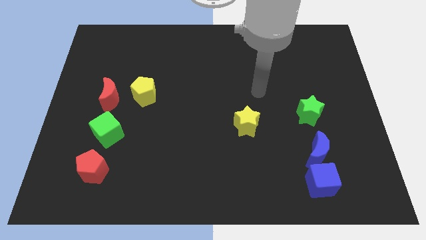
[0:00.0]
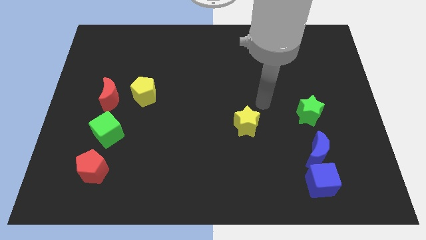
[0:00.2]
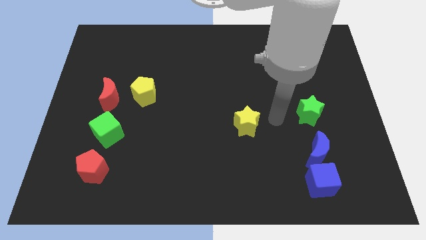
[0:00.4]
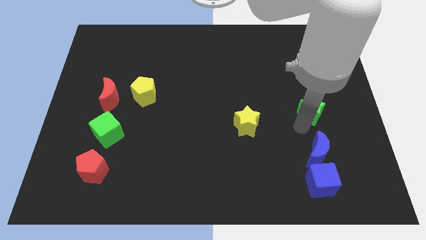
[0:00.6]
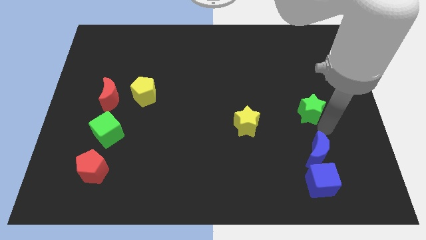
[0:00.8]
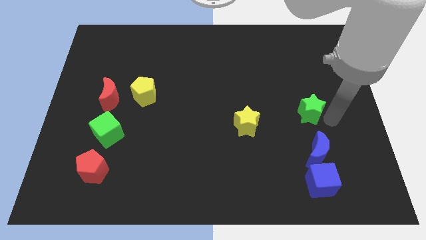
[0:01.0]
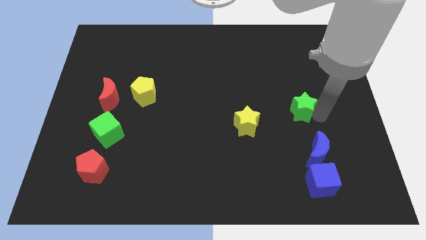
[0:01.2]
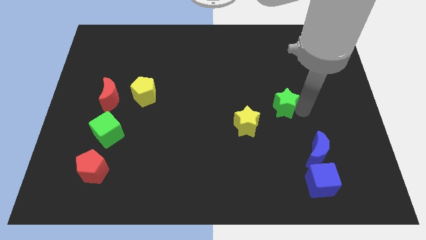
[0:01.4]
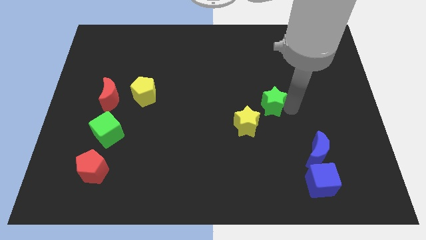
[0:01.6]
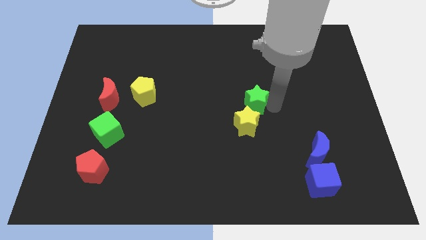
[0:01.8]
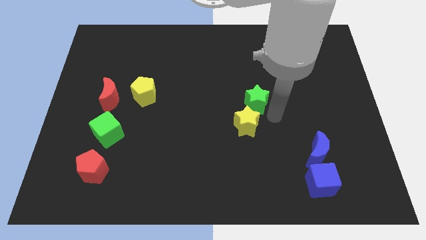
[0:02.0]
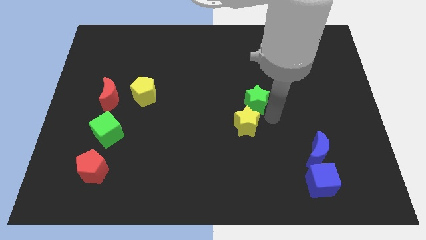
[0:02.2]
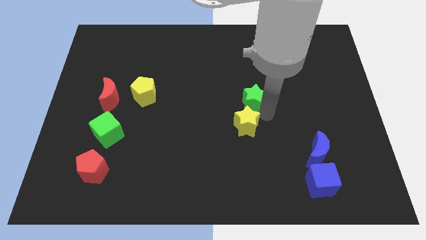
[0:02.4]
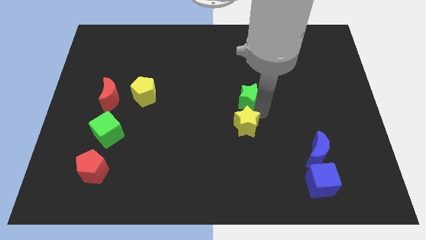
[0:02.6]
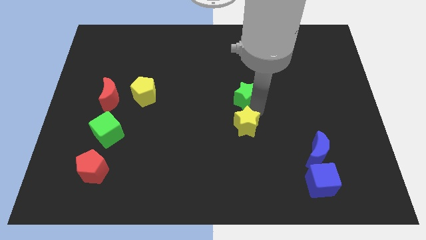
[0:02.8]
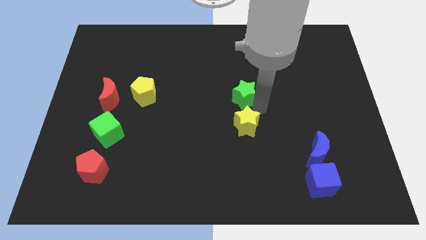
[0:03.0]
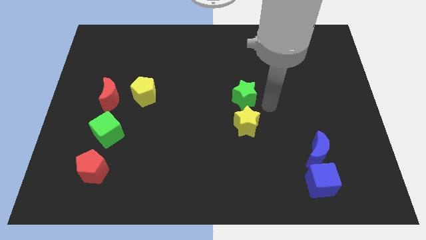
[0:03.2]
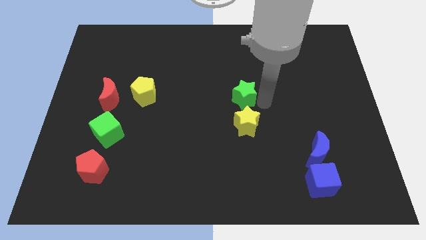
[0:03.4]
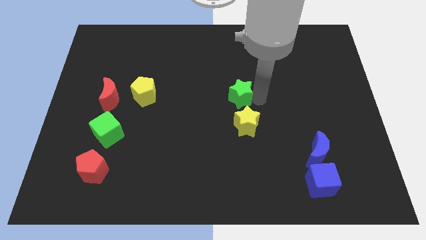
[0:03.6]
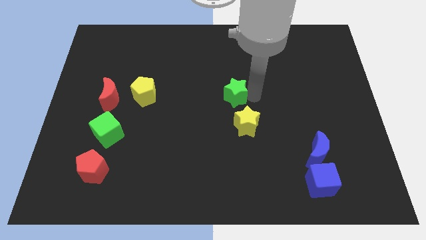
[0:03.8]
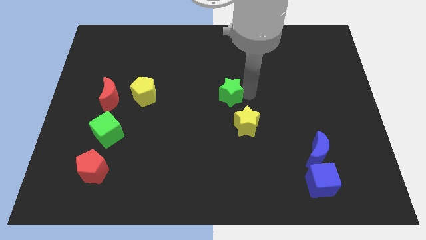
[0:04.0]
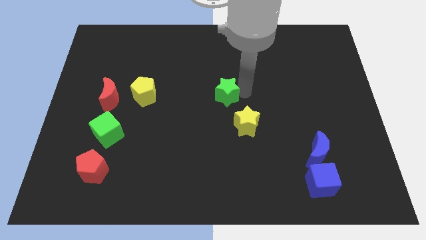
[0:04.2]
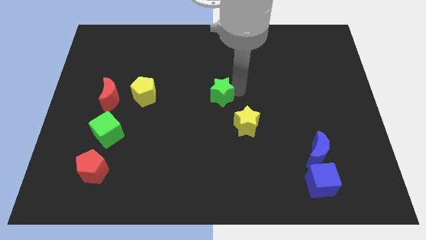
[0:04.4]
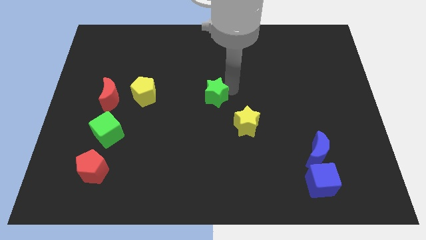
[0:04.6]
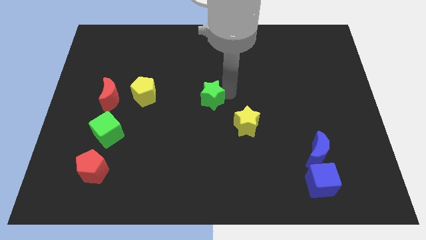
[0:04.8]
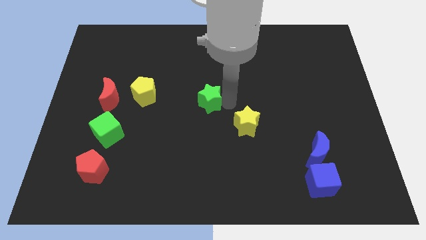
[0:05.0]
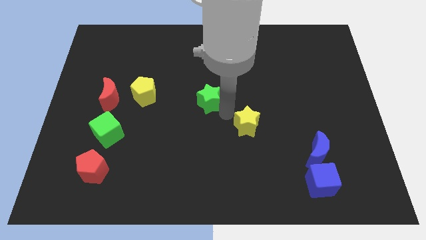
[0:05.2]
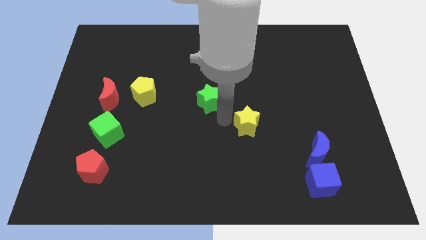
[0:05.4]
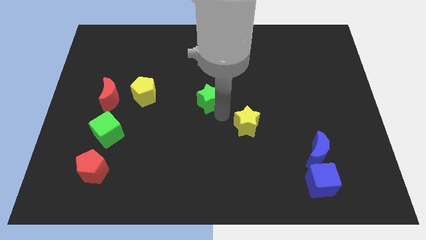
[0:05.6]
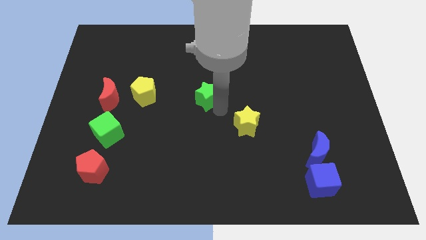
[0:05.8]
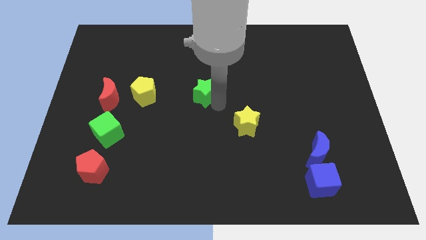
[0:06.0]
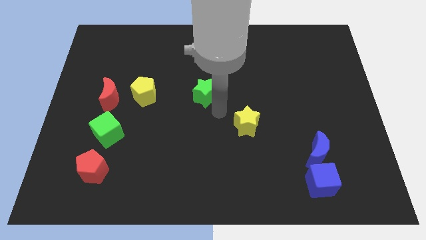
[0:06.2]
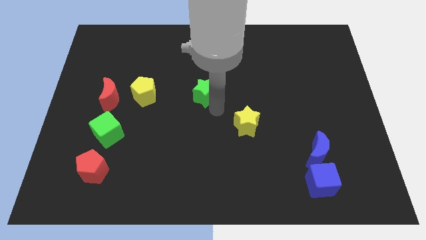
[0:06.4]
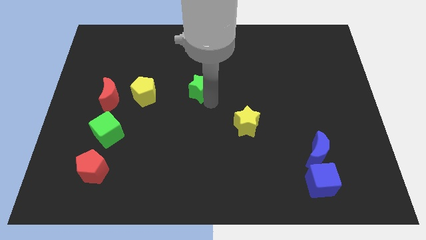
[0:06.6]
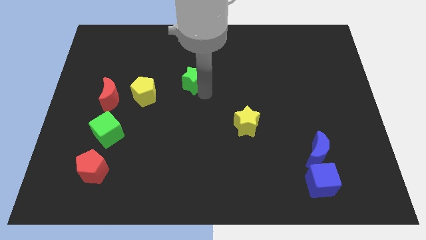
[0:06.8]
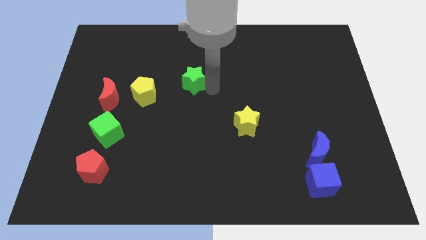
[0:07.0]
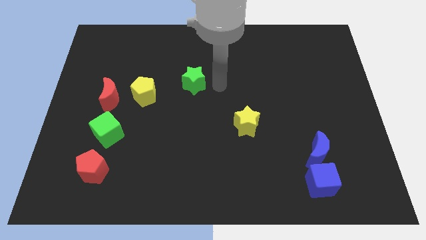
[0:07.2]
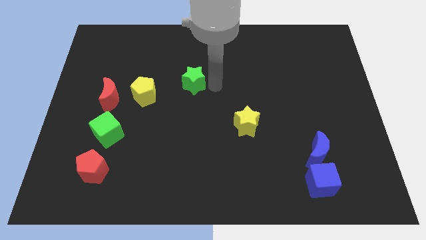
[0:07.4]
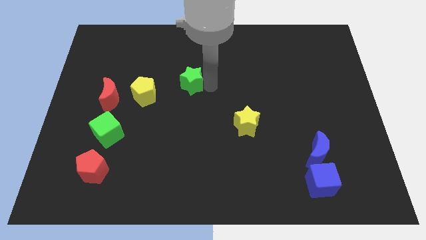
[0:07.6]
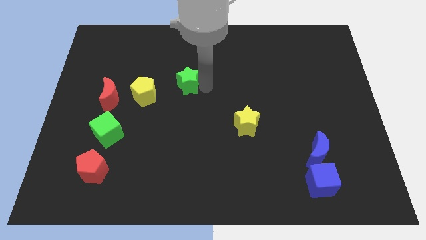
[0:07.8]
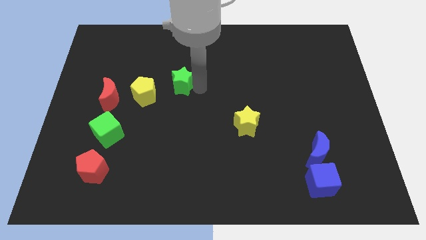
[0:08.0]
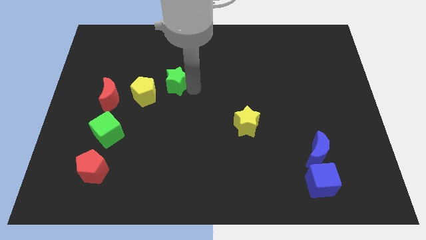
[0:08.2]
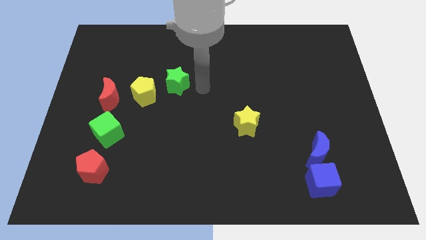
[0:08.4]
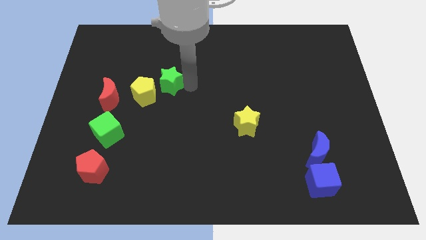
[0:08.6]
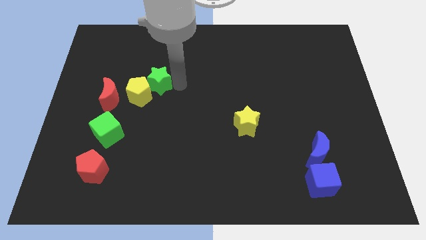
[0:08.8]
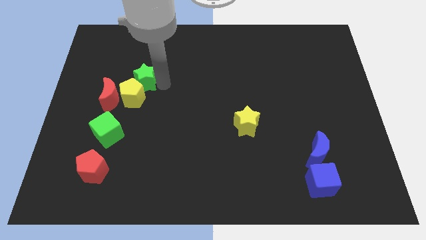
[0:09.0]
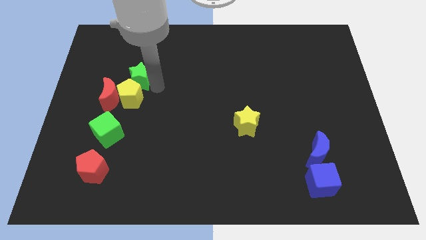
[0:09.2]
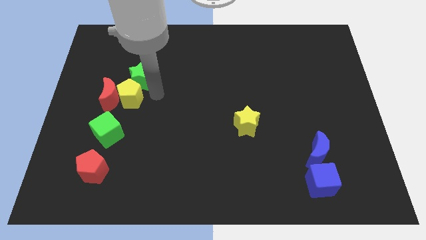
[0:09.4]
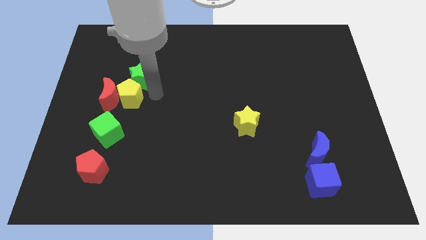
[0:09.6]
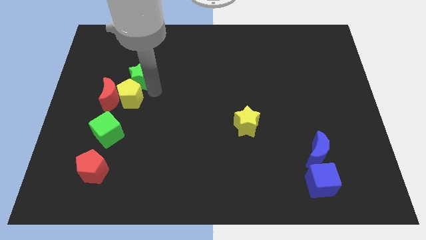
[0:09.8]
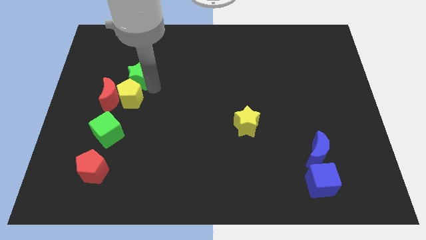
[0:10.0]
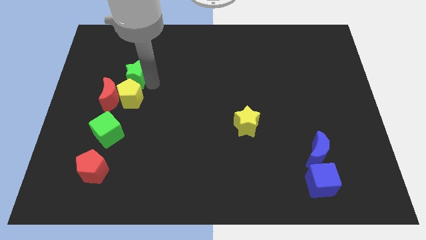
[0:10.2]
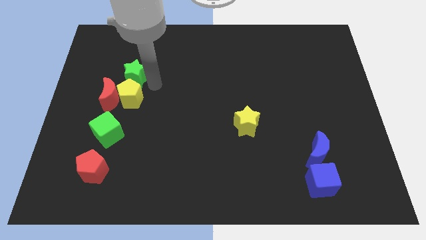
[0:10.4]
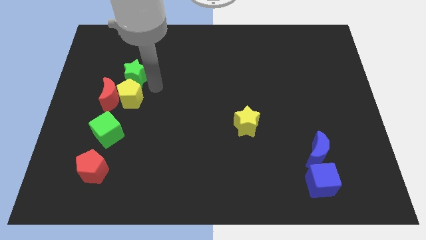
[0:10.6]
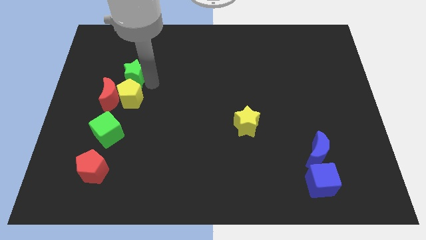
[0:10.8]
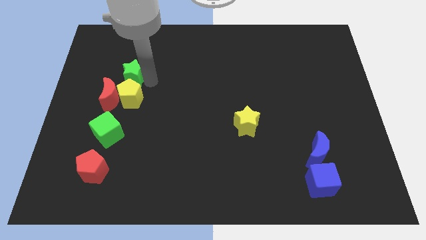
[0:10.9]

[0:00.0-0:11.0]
move the green star to the top of the red moon
